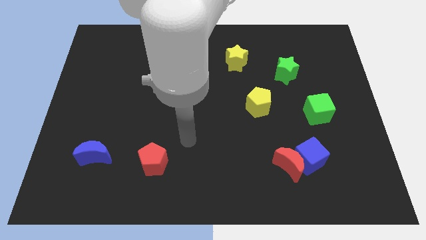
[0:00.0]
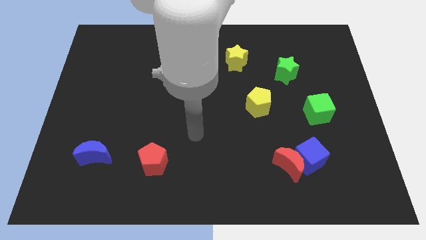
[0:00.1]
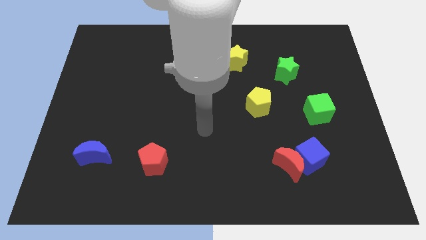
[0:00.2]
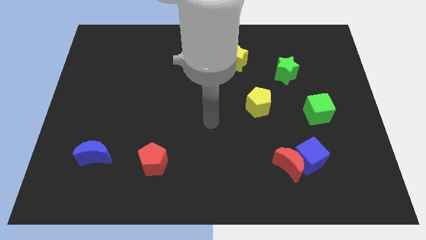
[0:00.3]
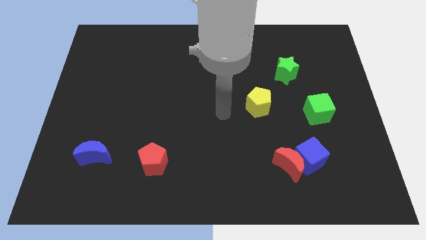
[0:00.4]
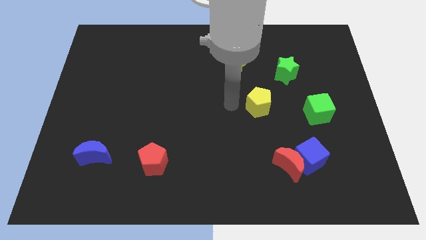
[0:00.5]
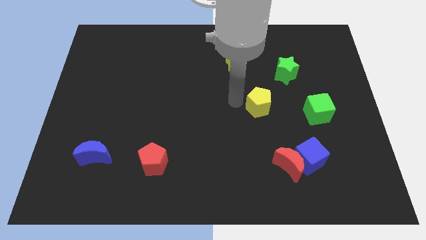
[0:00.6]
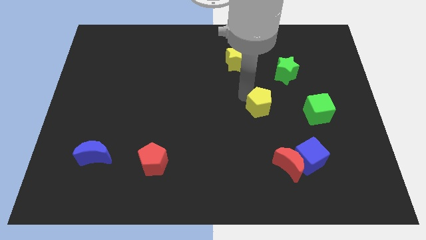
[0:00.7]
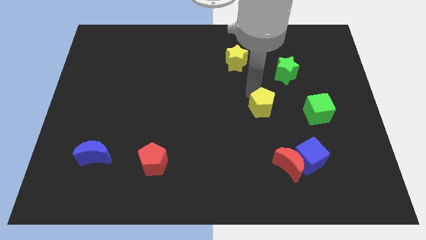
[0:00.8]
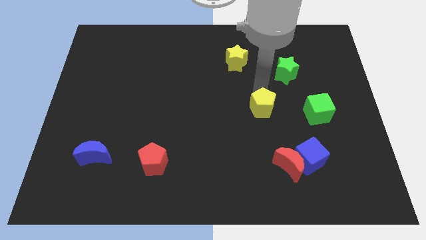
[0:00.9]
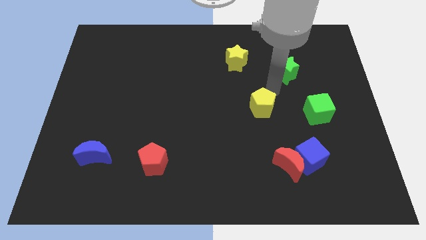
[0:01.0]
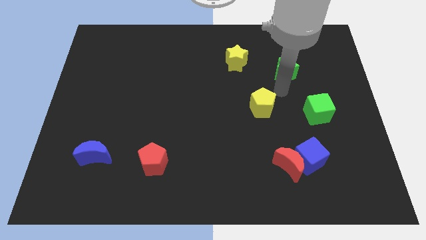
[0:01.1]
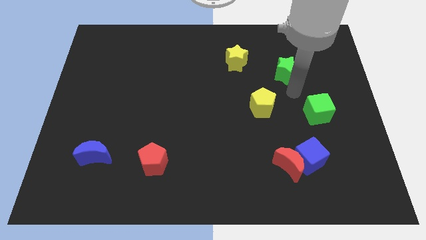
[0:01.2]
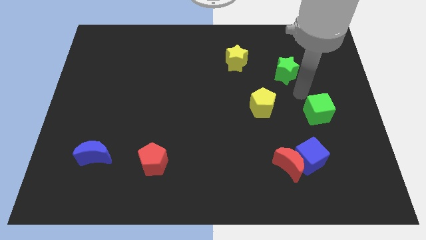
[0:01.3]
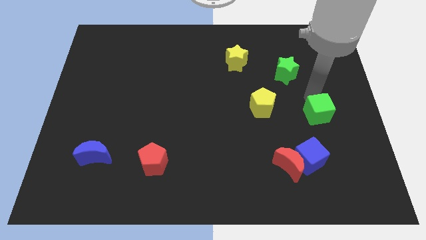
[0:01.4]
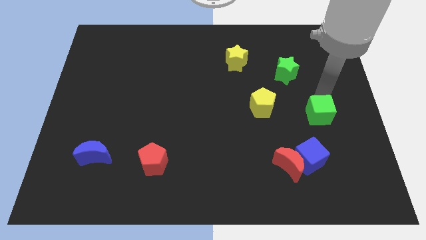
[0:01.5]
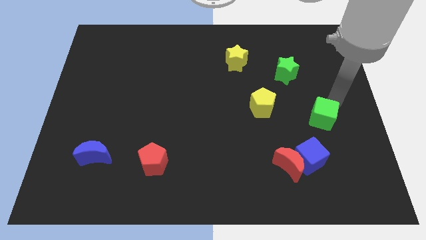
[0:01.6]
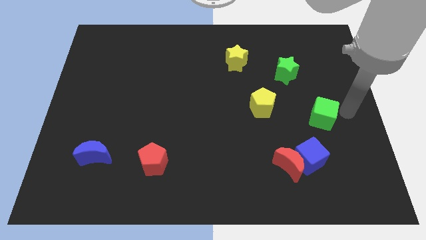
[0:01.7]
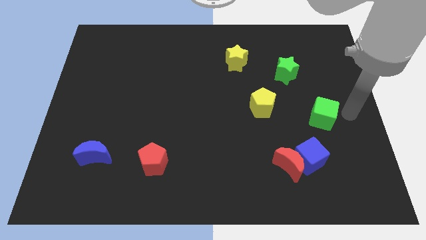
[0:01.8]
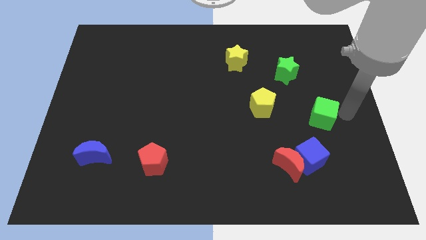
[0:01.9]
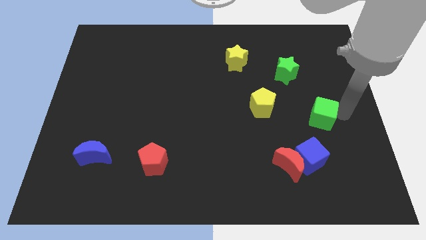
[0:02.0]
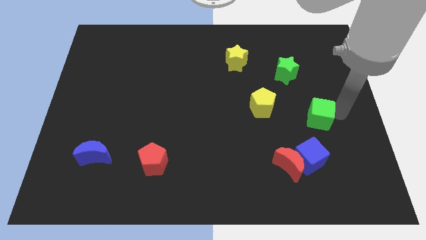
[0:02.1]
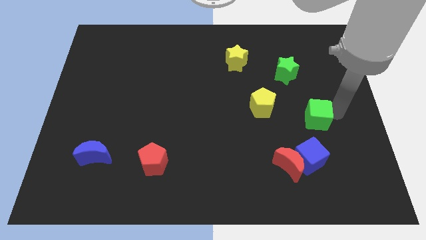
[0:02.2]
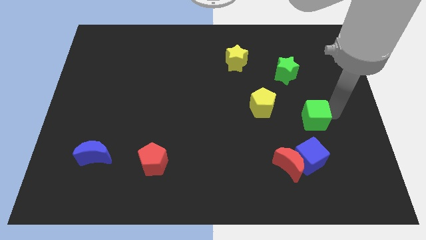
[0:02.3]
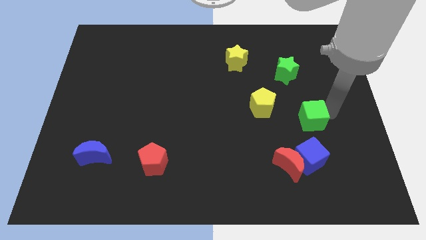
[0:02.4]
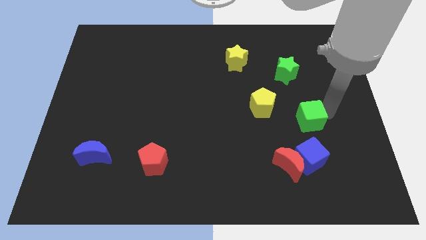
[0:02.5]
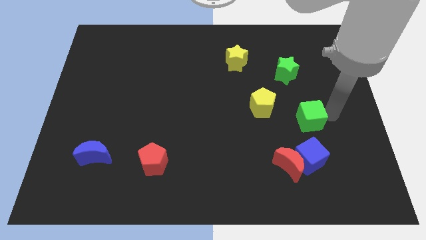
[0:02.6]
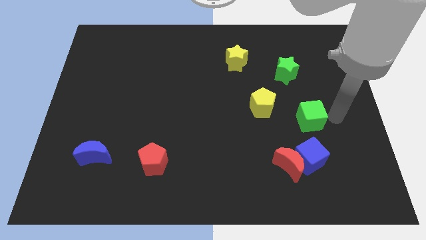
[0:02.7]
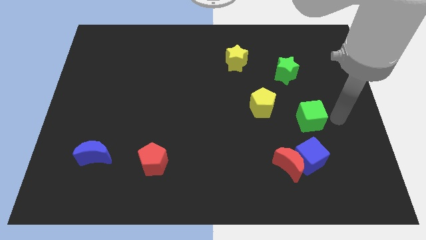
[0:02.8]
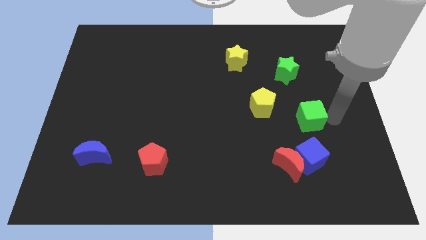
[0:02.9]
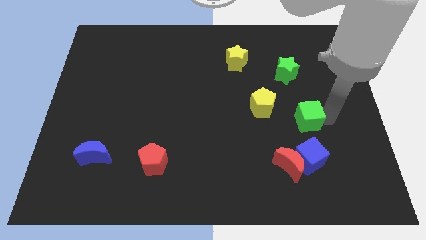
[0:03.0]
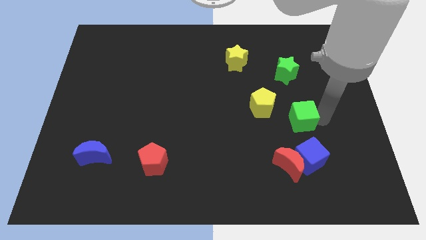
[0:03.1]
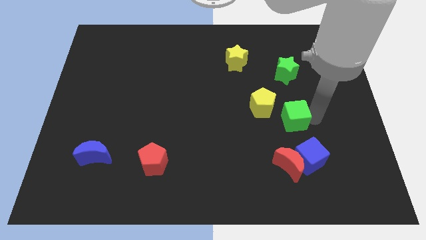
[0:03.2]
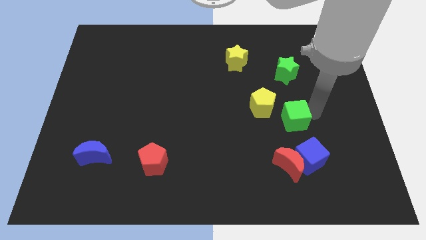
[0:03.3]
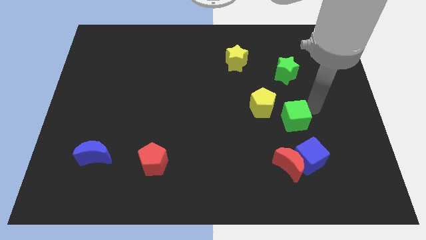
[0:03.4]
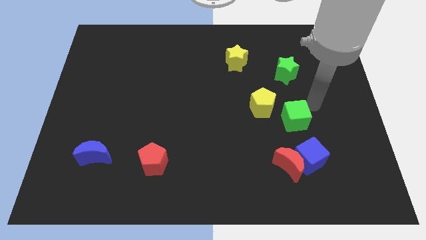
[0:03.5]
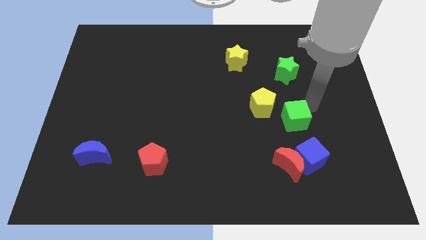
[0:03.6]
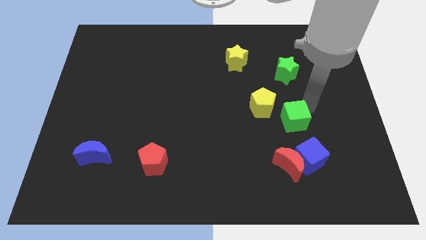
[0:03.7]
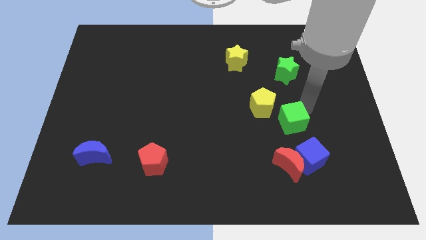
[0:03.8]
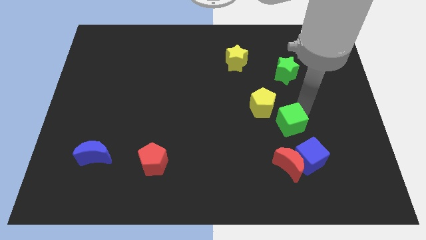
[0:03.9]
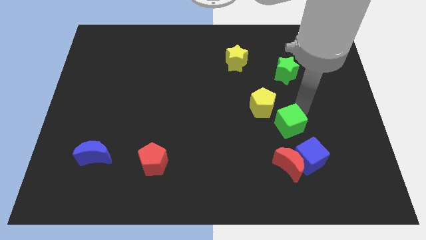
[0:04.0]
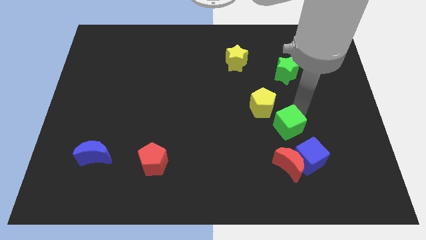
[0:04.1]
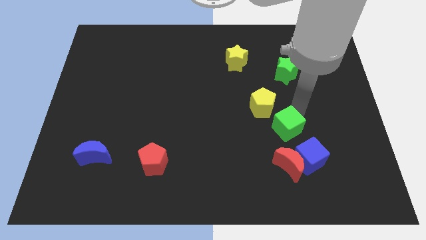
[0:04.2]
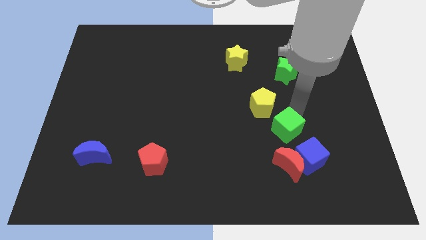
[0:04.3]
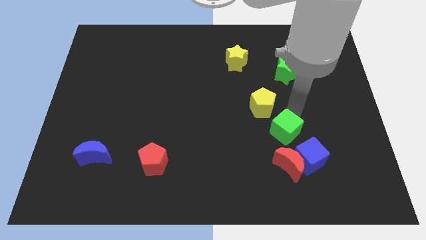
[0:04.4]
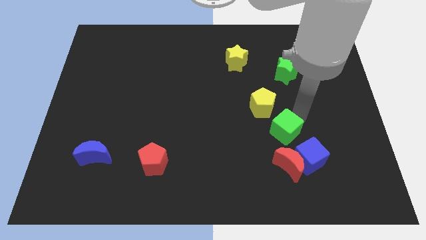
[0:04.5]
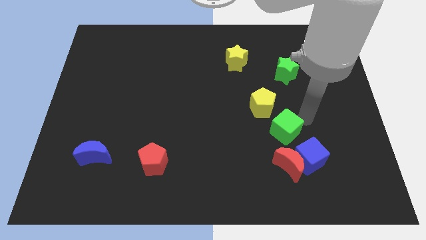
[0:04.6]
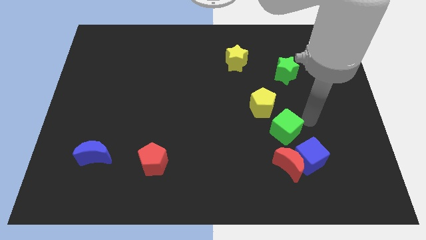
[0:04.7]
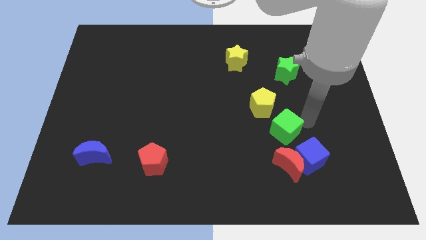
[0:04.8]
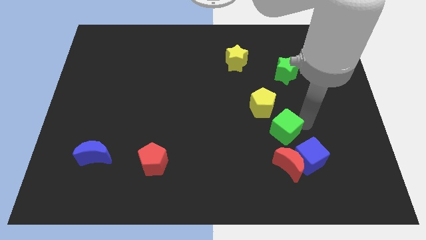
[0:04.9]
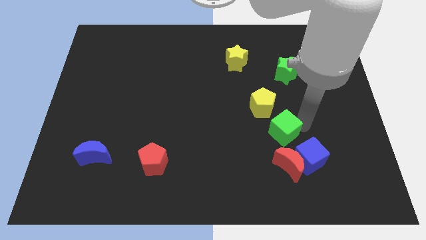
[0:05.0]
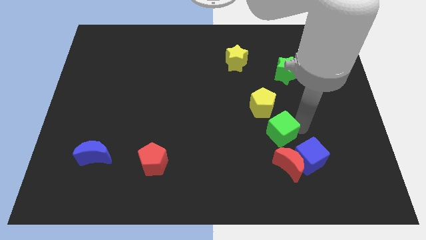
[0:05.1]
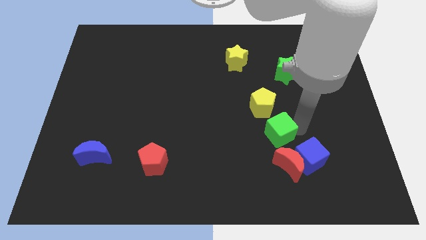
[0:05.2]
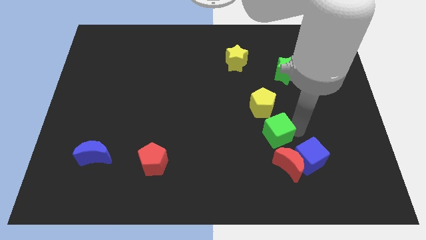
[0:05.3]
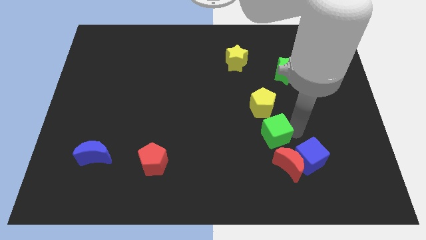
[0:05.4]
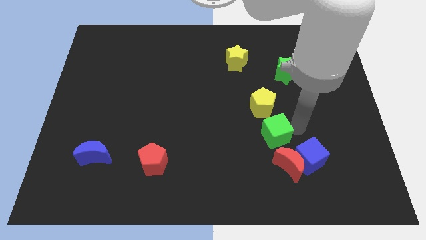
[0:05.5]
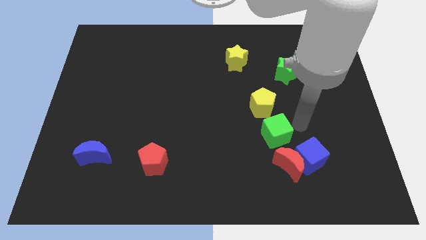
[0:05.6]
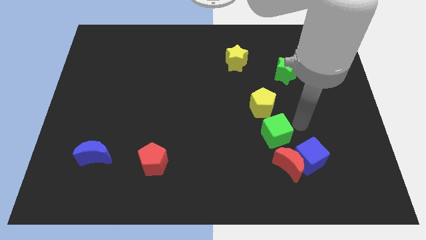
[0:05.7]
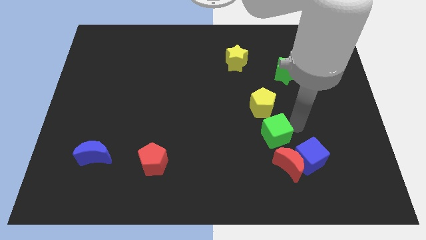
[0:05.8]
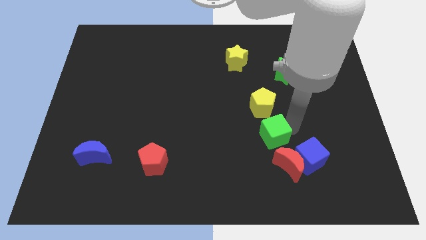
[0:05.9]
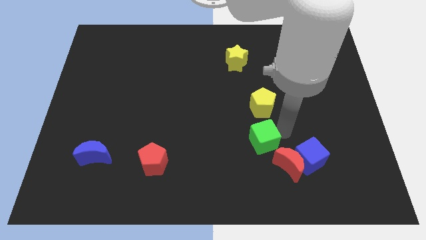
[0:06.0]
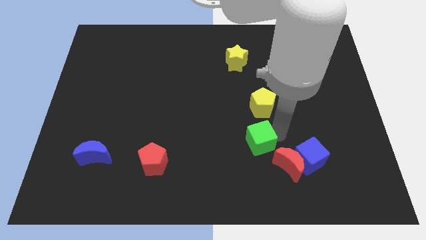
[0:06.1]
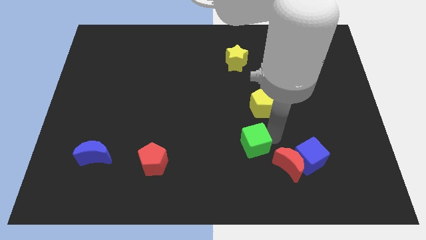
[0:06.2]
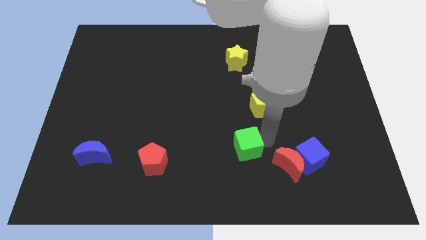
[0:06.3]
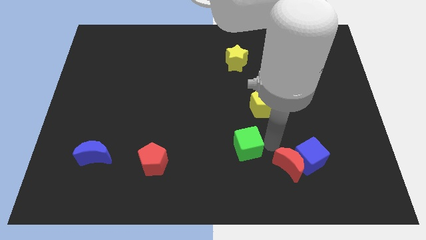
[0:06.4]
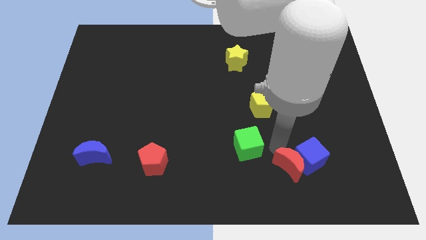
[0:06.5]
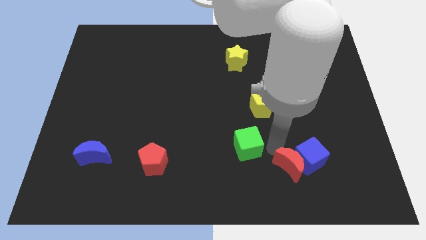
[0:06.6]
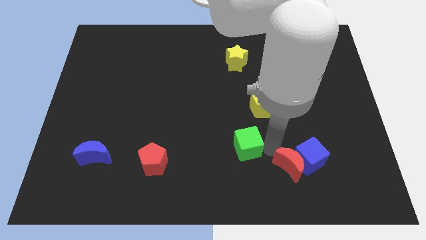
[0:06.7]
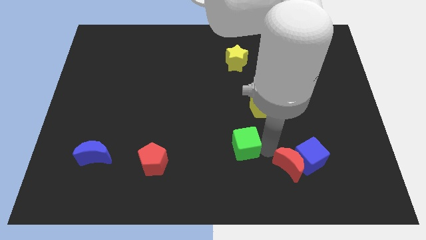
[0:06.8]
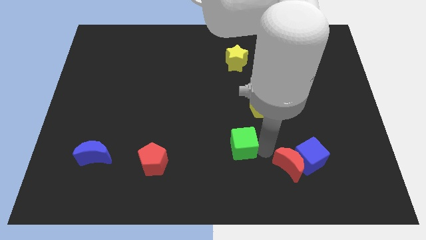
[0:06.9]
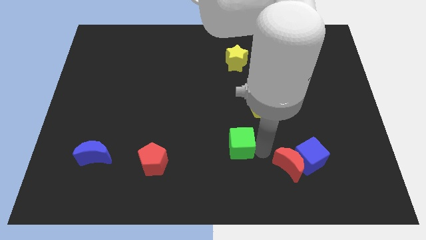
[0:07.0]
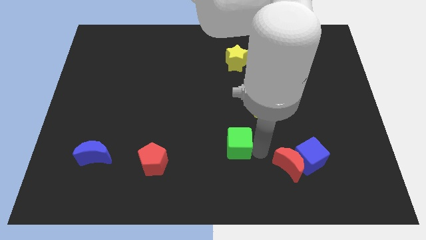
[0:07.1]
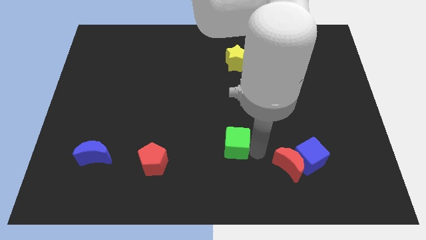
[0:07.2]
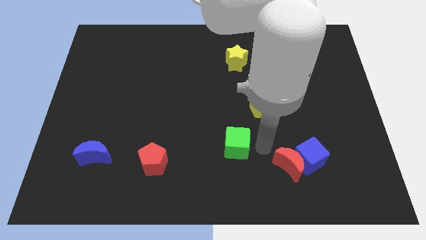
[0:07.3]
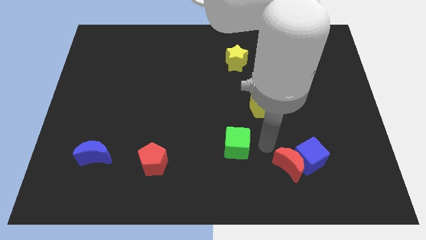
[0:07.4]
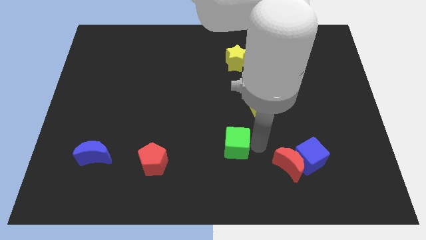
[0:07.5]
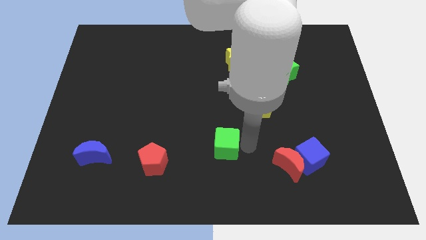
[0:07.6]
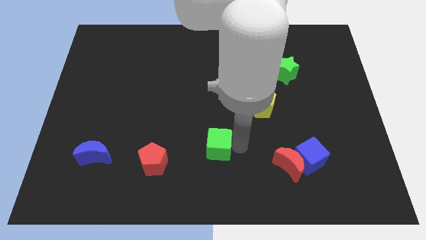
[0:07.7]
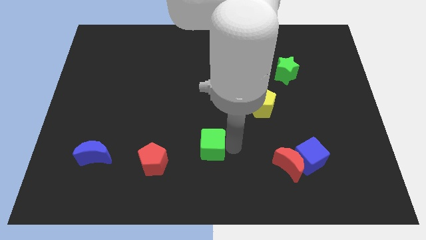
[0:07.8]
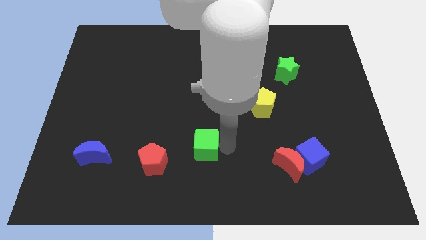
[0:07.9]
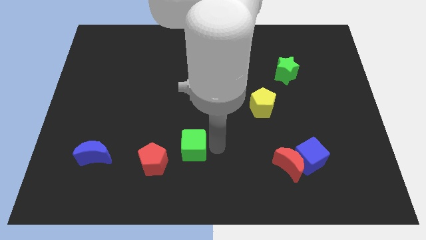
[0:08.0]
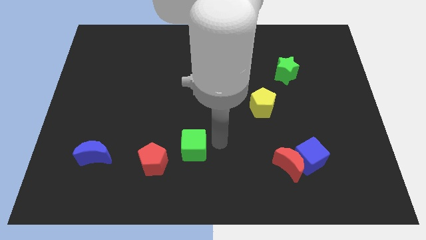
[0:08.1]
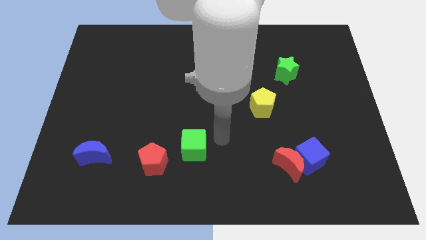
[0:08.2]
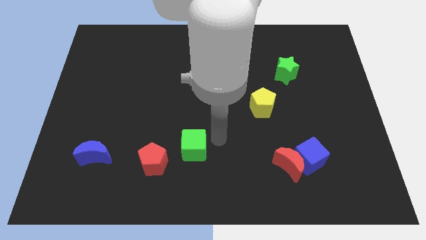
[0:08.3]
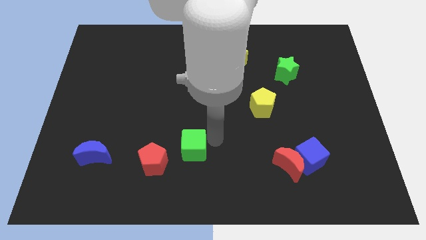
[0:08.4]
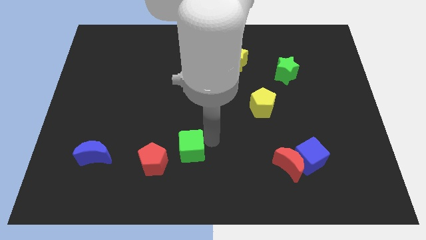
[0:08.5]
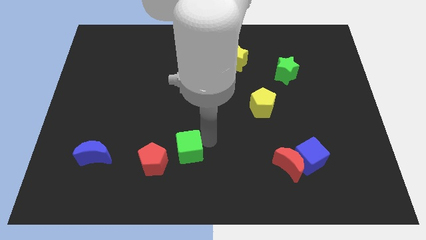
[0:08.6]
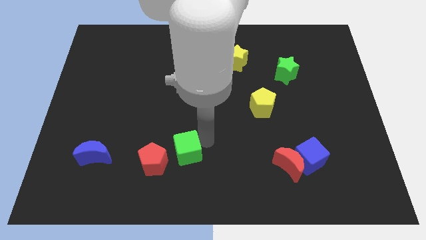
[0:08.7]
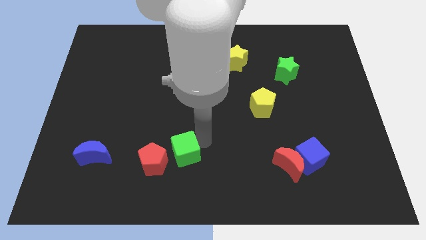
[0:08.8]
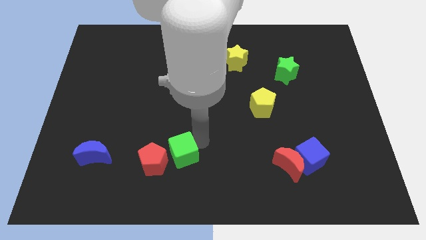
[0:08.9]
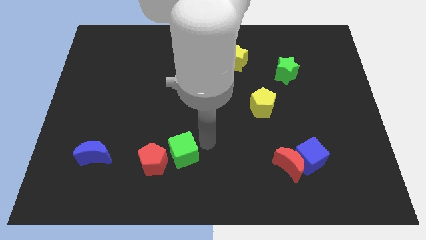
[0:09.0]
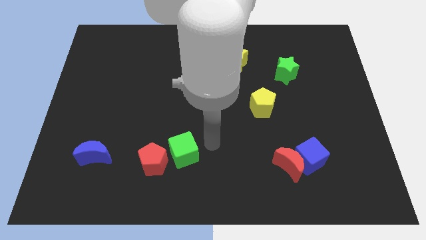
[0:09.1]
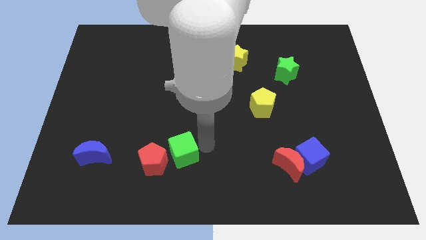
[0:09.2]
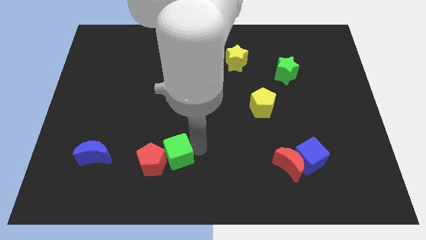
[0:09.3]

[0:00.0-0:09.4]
move the green cube to the red pentagon
